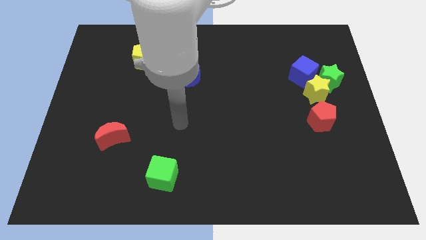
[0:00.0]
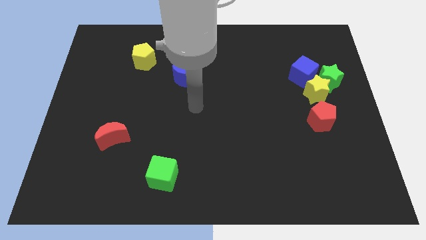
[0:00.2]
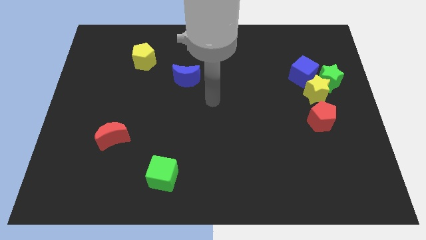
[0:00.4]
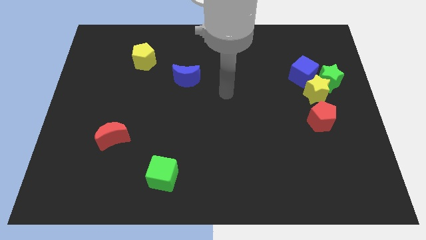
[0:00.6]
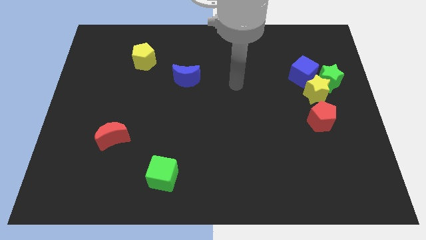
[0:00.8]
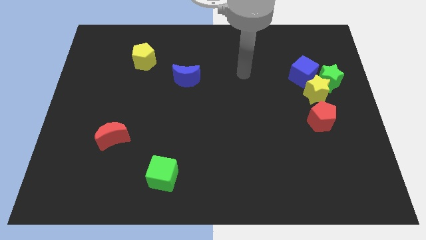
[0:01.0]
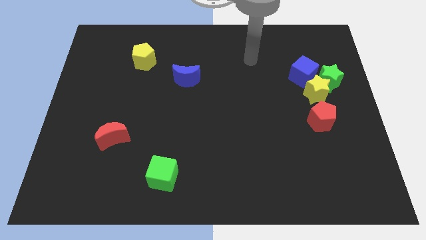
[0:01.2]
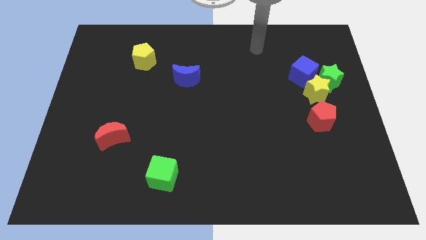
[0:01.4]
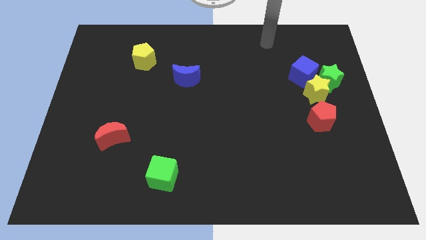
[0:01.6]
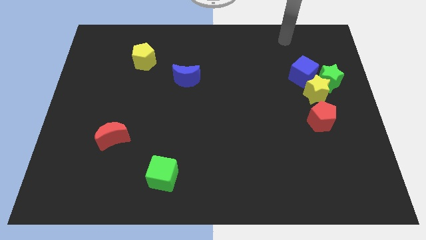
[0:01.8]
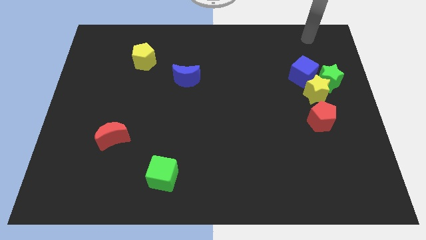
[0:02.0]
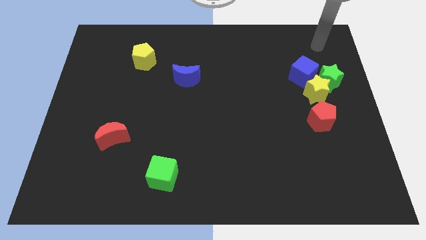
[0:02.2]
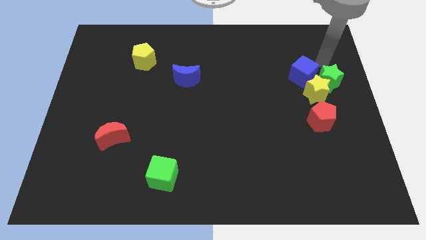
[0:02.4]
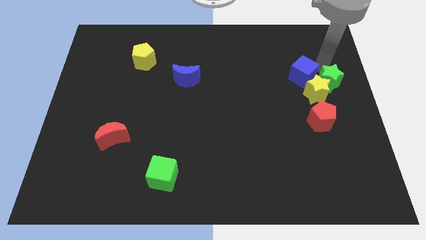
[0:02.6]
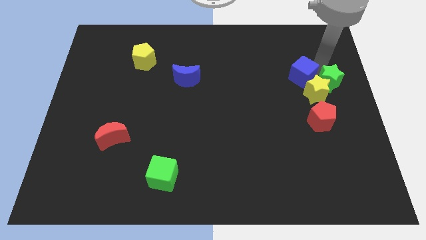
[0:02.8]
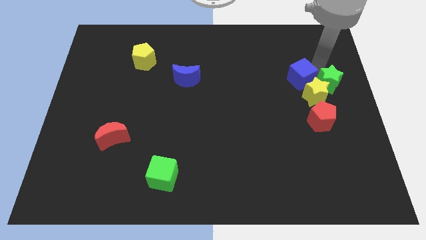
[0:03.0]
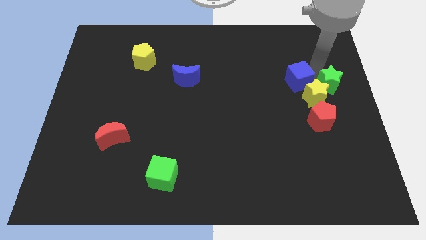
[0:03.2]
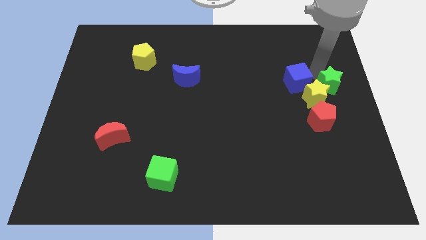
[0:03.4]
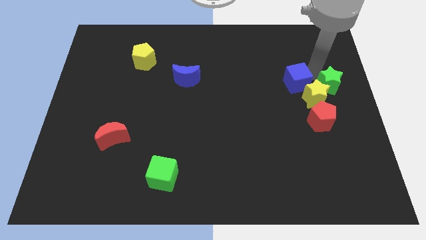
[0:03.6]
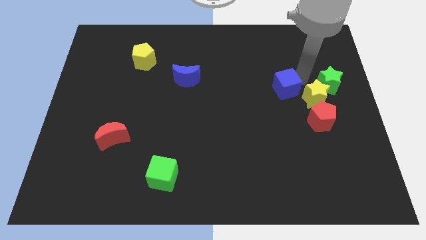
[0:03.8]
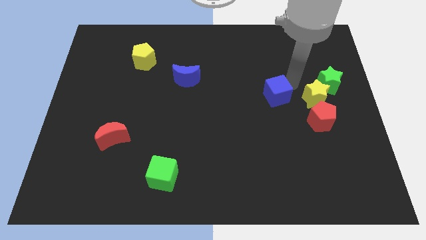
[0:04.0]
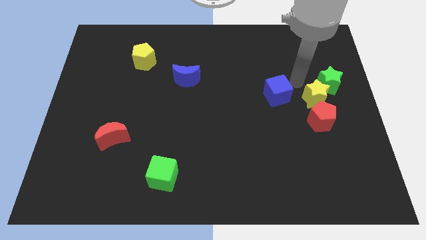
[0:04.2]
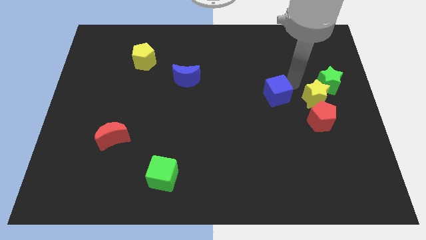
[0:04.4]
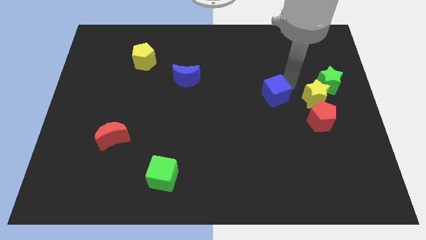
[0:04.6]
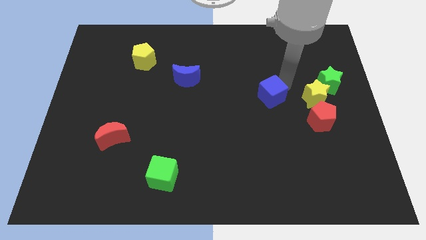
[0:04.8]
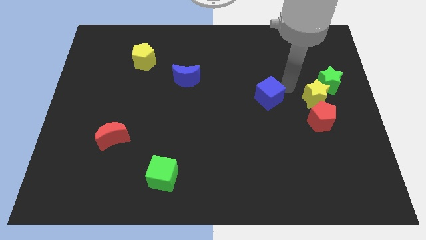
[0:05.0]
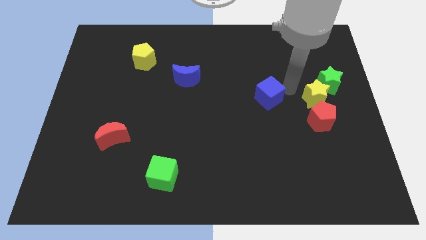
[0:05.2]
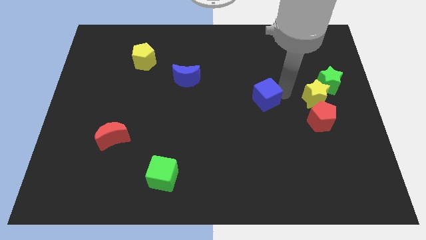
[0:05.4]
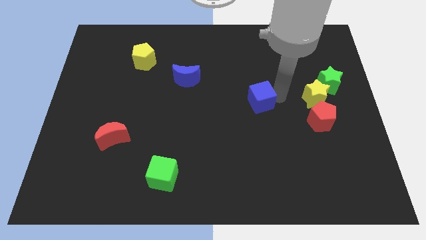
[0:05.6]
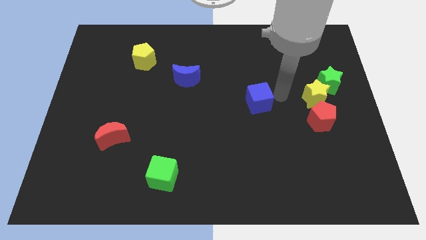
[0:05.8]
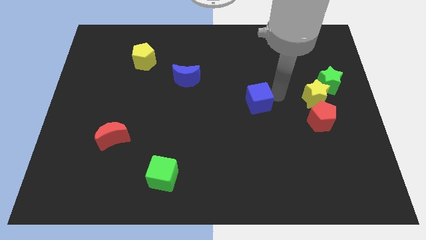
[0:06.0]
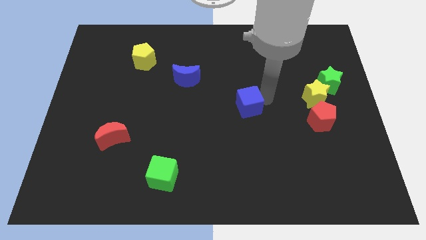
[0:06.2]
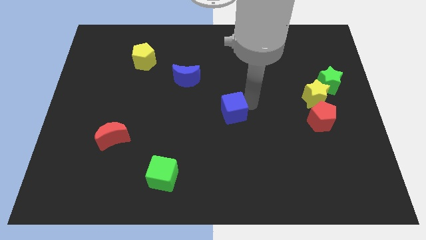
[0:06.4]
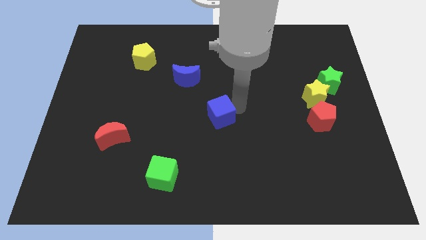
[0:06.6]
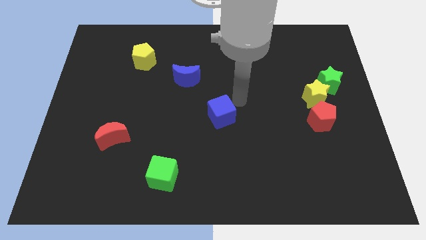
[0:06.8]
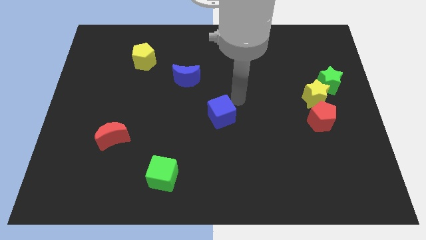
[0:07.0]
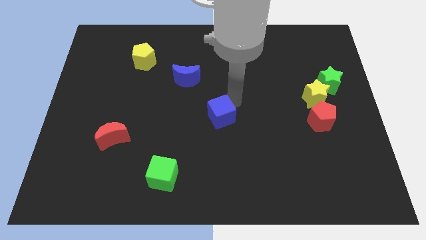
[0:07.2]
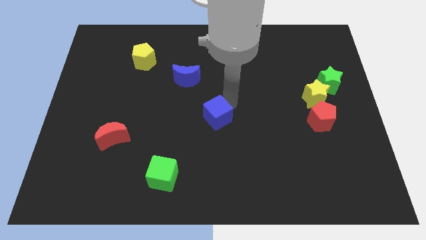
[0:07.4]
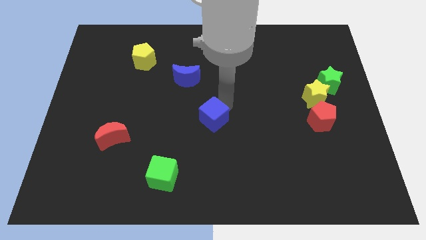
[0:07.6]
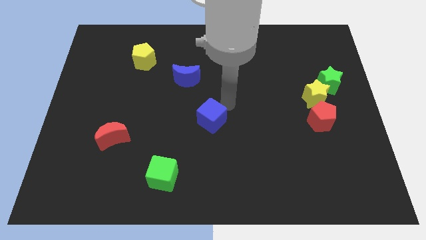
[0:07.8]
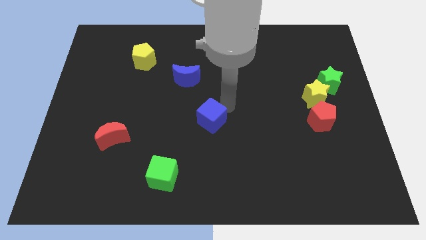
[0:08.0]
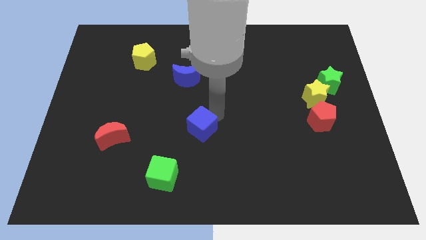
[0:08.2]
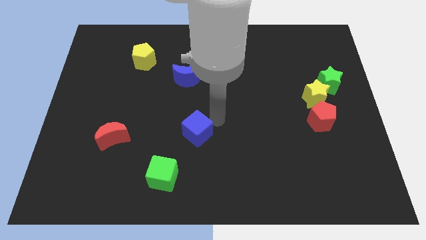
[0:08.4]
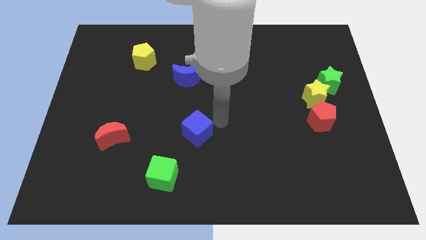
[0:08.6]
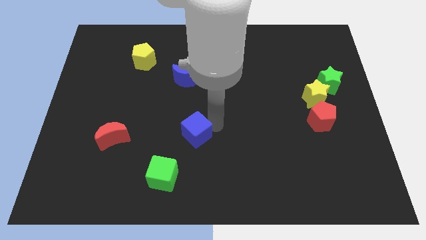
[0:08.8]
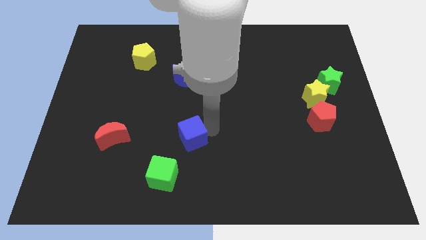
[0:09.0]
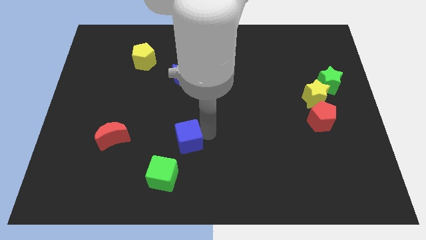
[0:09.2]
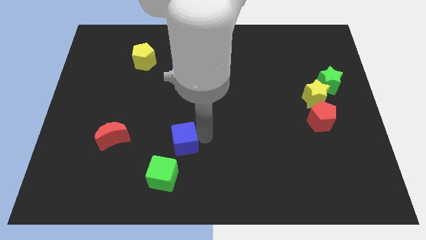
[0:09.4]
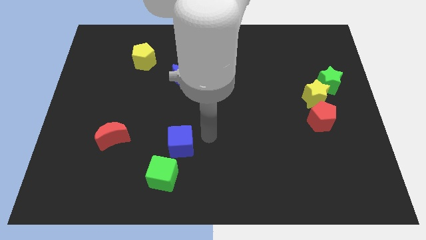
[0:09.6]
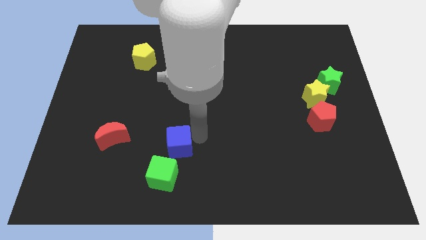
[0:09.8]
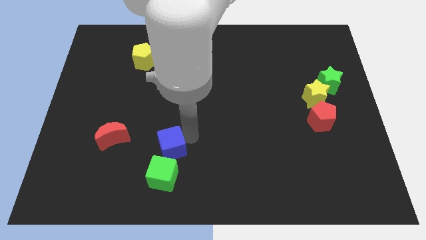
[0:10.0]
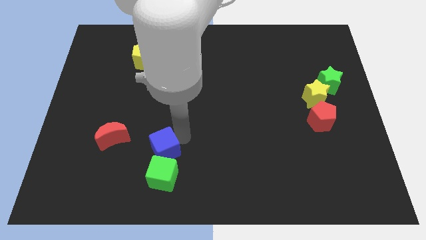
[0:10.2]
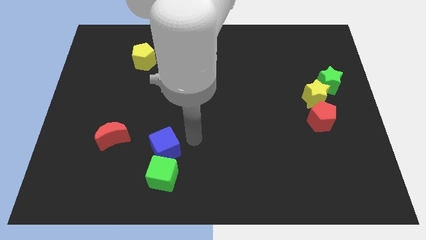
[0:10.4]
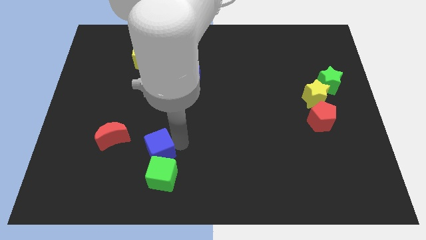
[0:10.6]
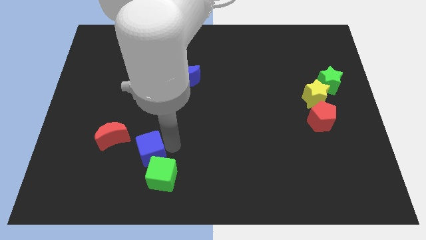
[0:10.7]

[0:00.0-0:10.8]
put the blue cube to the bottom right side of the red moon

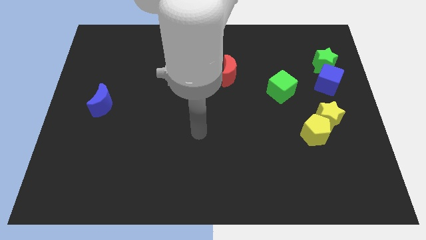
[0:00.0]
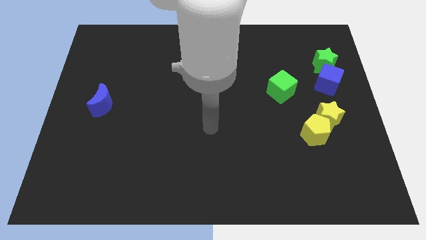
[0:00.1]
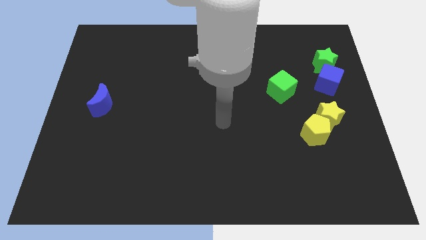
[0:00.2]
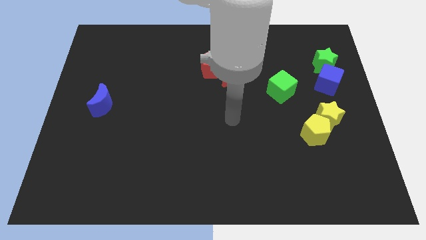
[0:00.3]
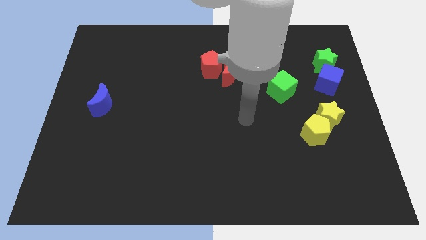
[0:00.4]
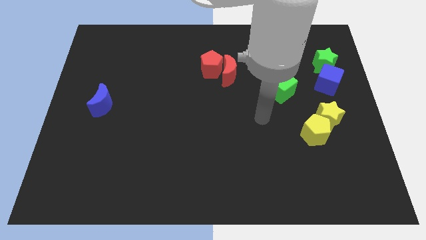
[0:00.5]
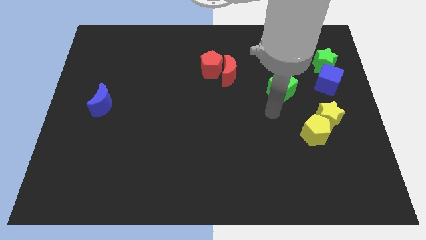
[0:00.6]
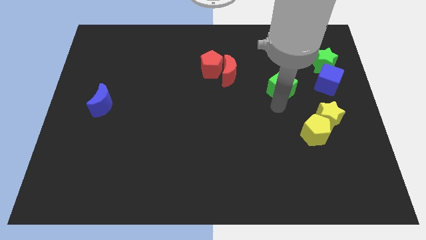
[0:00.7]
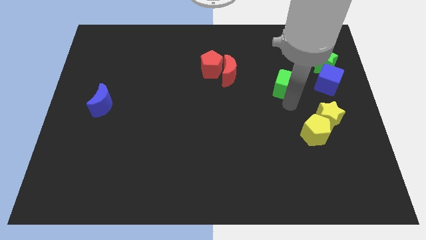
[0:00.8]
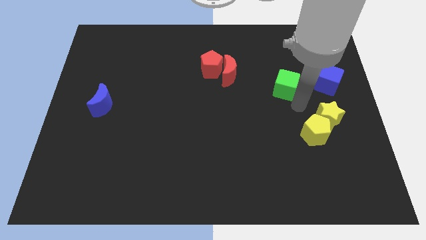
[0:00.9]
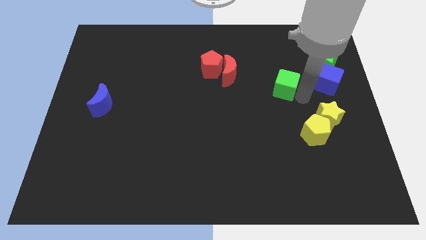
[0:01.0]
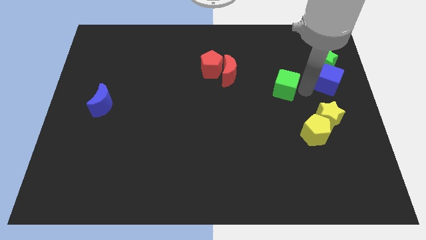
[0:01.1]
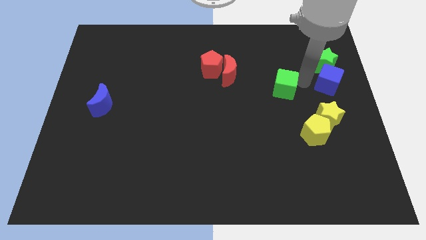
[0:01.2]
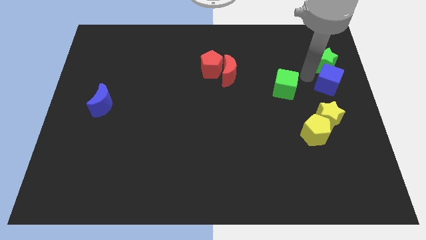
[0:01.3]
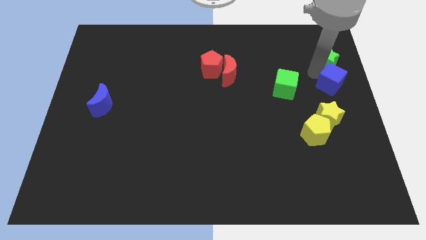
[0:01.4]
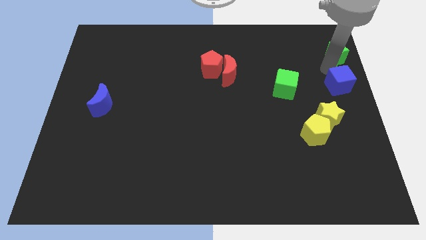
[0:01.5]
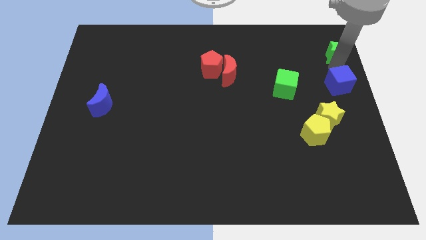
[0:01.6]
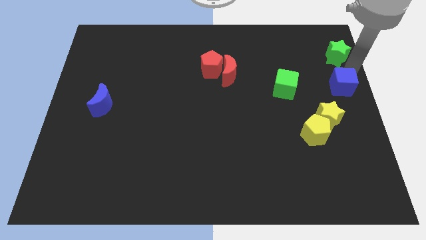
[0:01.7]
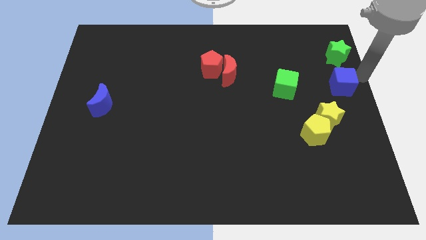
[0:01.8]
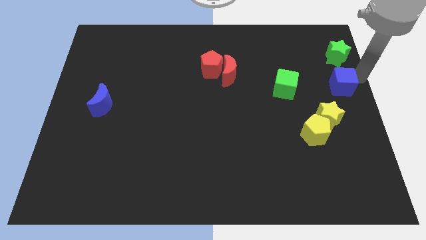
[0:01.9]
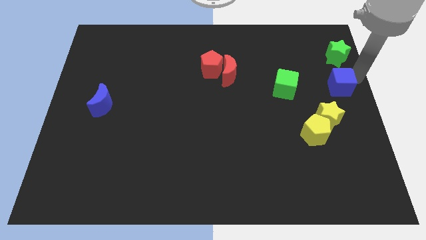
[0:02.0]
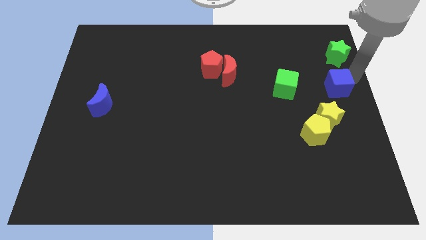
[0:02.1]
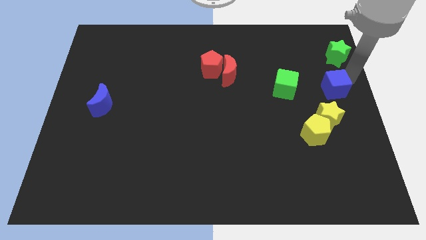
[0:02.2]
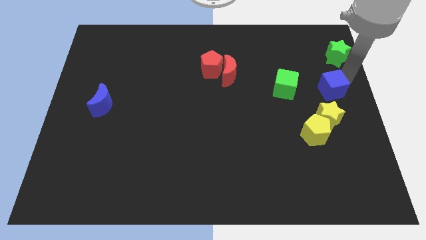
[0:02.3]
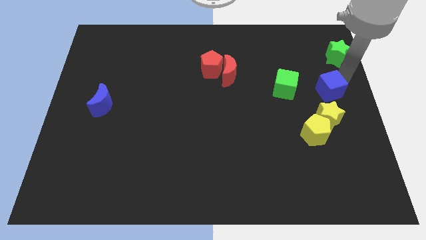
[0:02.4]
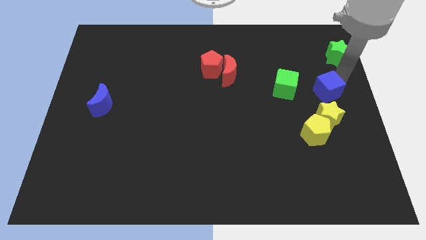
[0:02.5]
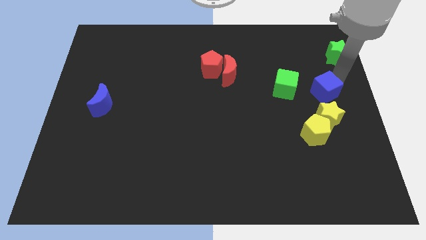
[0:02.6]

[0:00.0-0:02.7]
put the blue cube to the top side of the yellow pentagon
